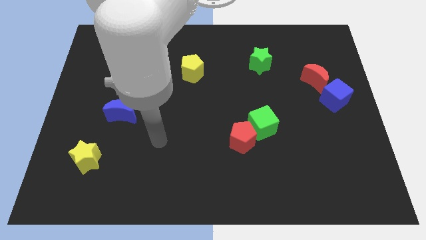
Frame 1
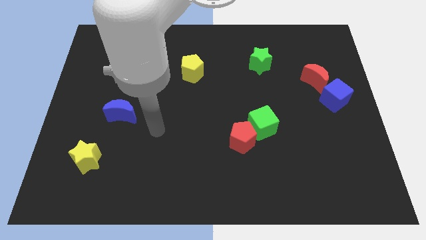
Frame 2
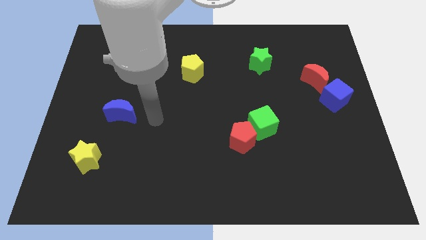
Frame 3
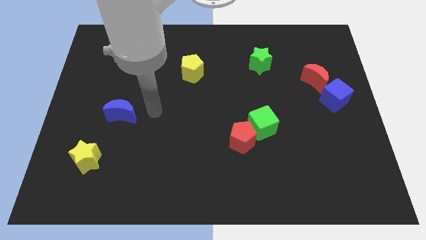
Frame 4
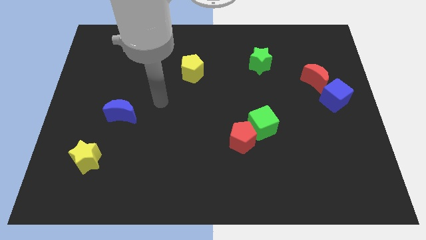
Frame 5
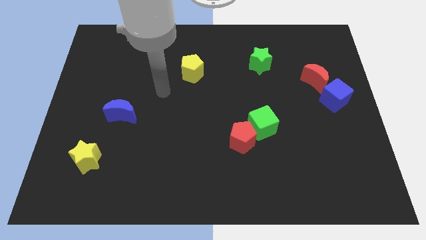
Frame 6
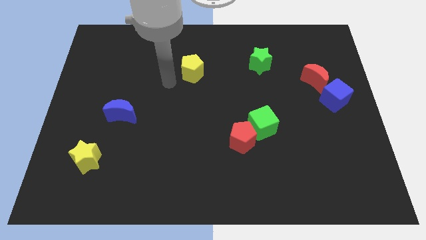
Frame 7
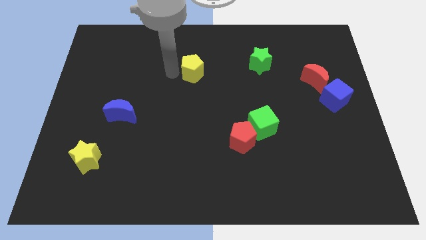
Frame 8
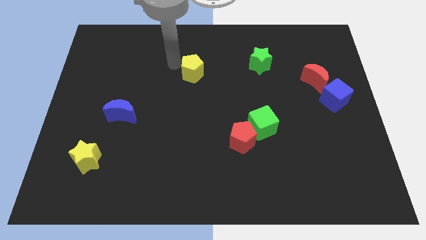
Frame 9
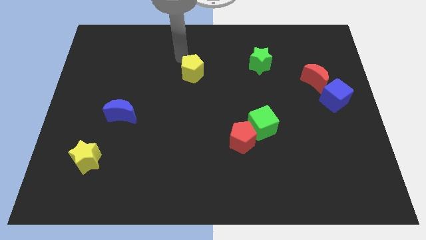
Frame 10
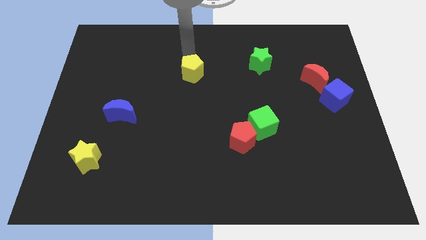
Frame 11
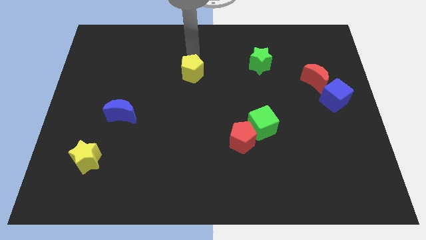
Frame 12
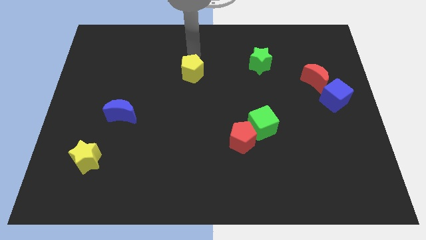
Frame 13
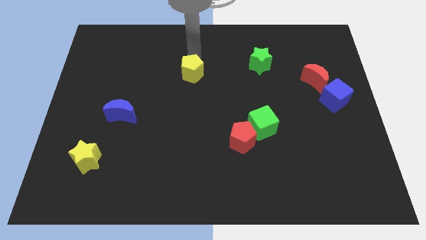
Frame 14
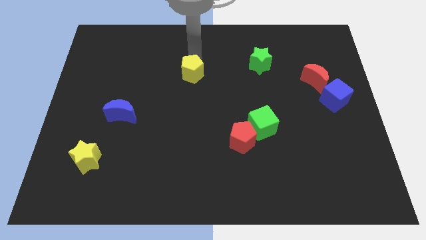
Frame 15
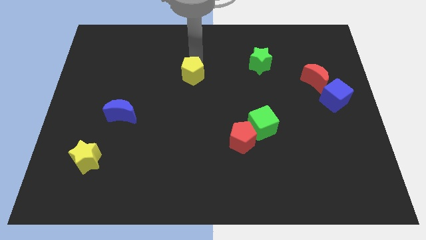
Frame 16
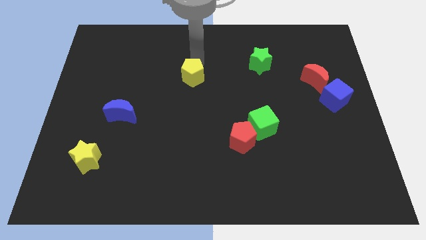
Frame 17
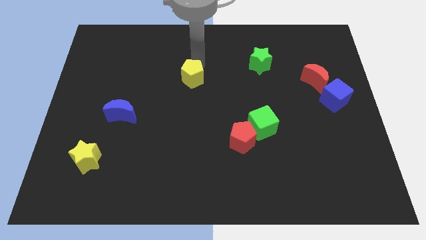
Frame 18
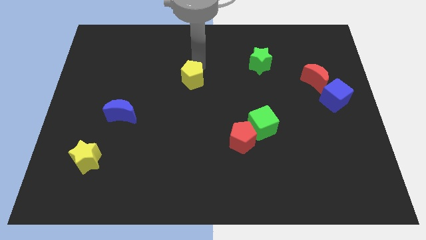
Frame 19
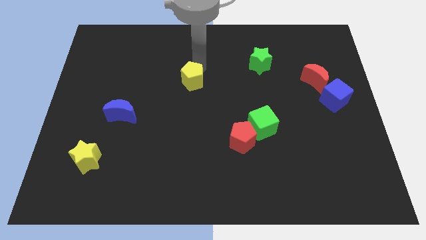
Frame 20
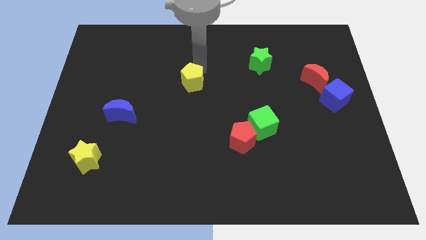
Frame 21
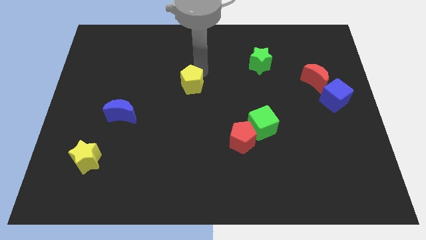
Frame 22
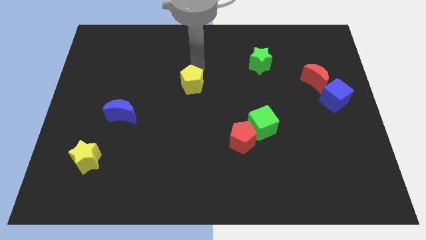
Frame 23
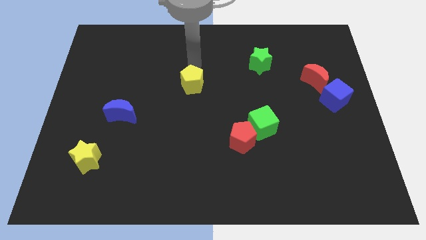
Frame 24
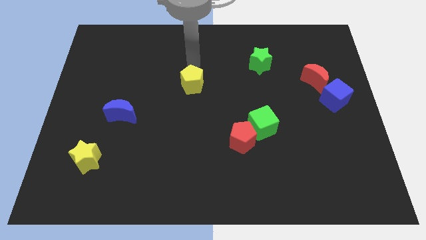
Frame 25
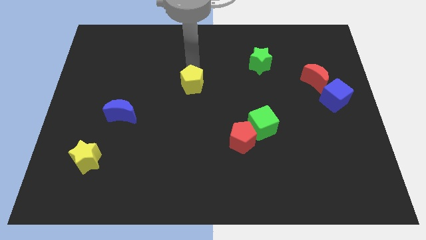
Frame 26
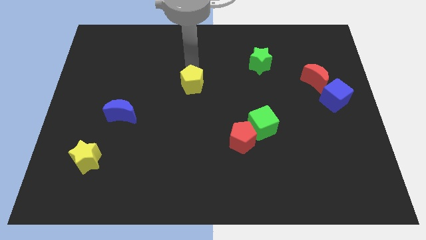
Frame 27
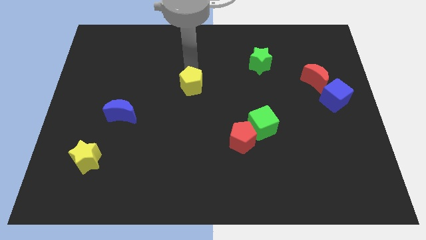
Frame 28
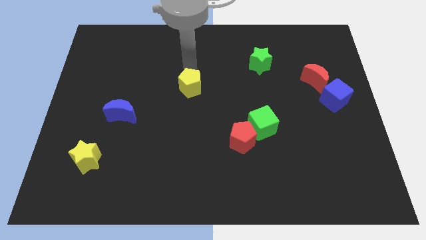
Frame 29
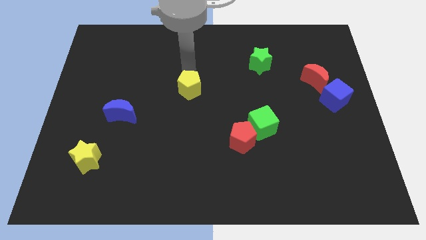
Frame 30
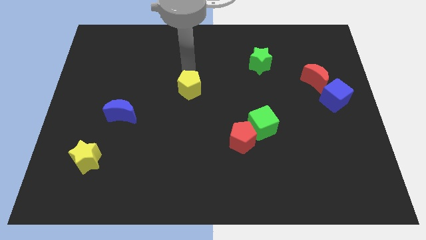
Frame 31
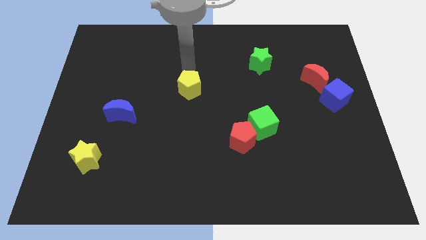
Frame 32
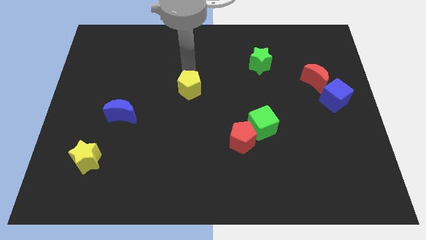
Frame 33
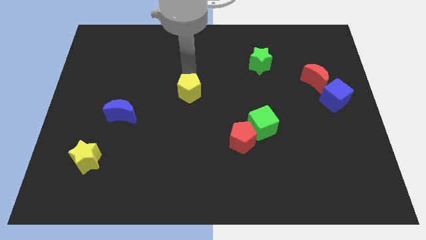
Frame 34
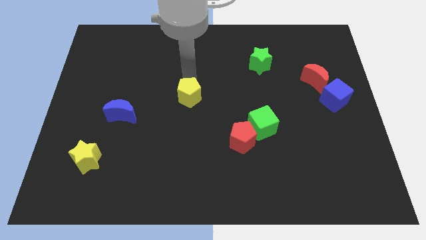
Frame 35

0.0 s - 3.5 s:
move the yellow pentagon downwards a little bit

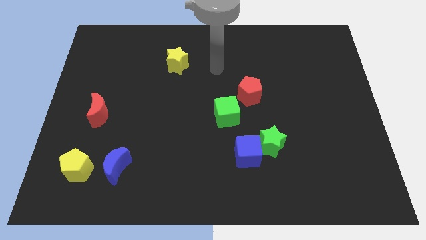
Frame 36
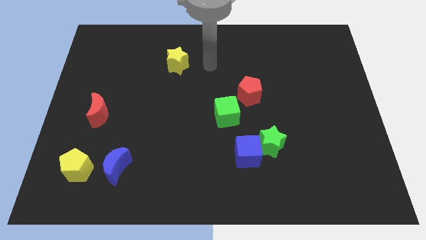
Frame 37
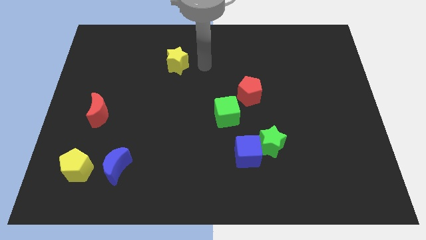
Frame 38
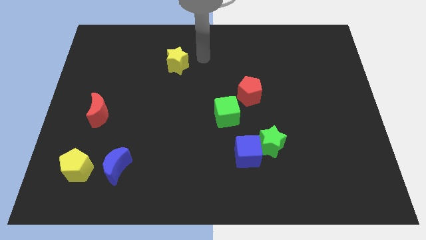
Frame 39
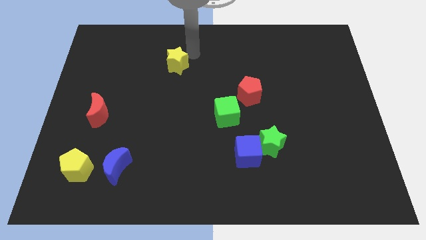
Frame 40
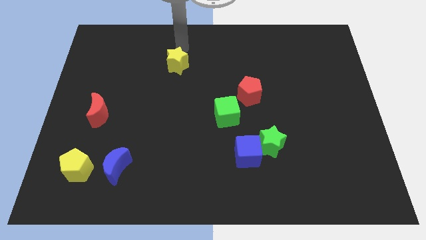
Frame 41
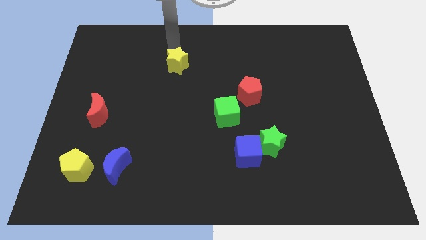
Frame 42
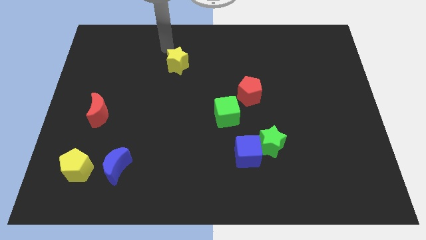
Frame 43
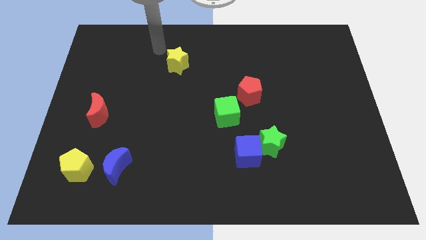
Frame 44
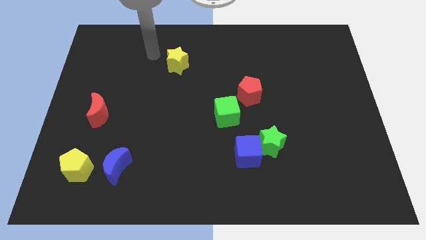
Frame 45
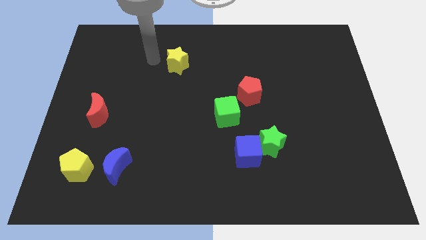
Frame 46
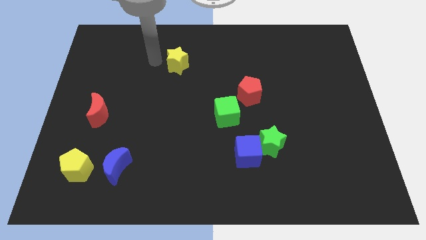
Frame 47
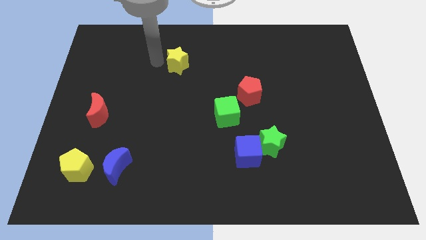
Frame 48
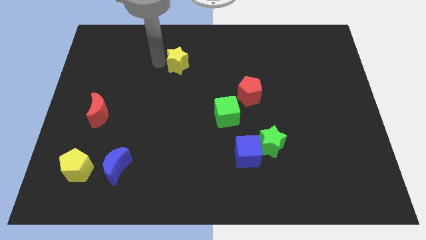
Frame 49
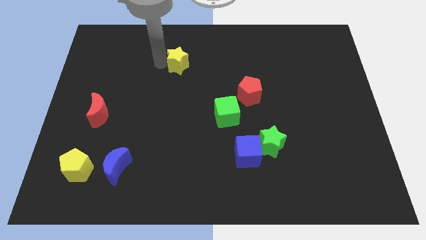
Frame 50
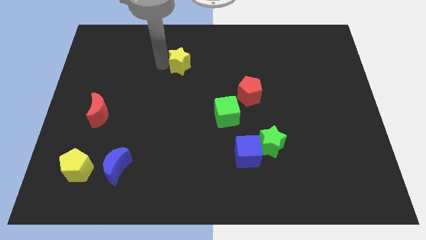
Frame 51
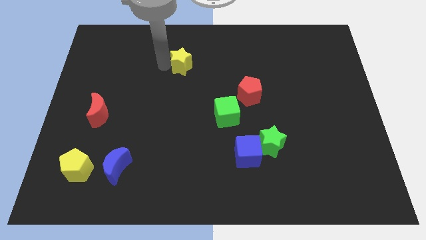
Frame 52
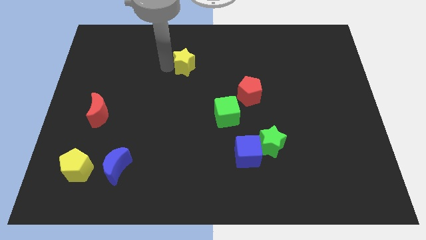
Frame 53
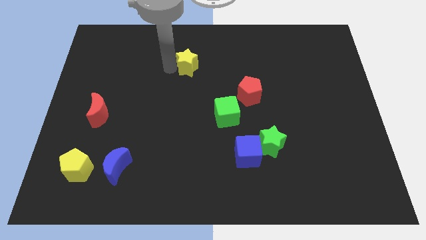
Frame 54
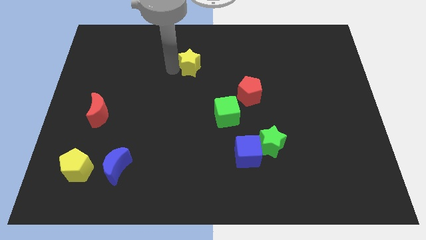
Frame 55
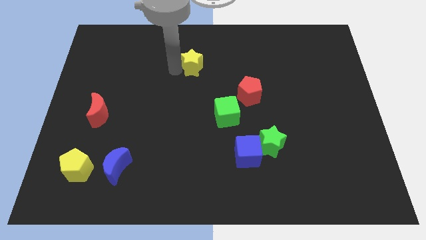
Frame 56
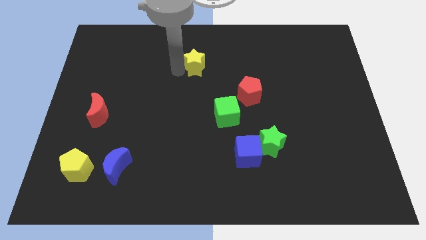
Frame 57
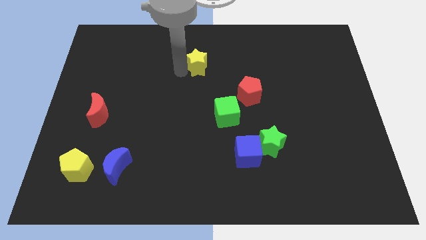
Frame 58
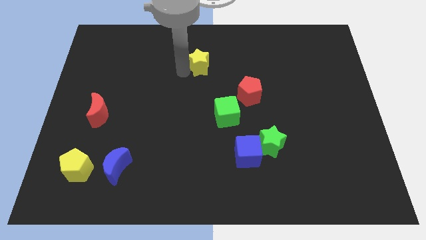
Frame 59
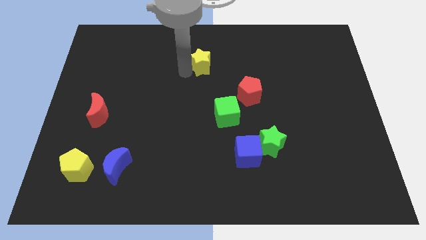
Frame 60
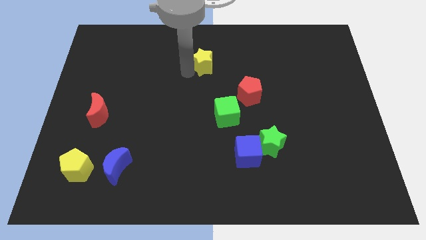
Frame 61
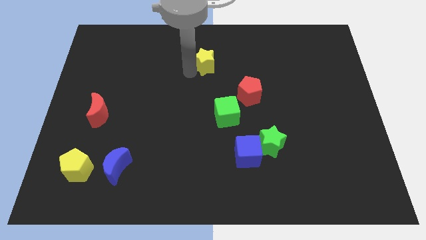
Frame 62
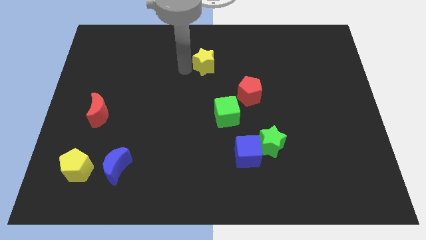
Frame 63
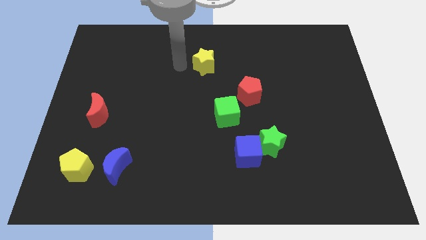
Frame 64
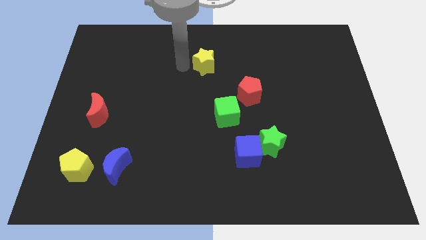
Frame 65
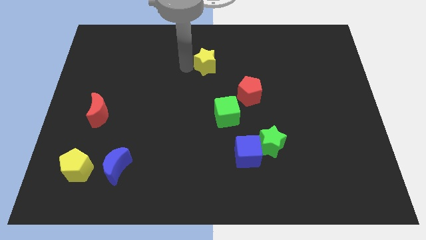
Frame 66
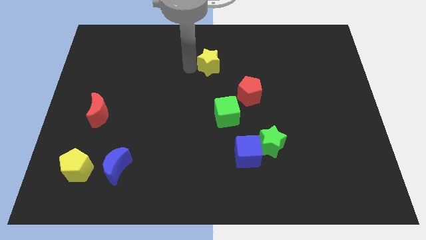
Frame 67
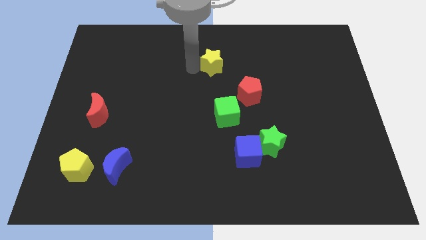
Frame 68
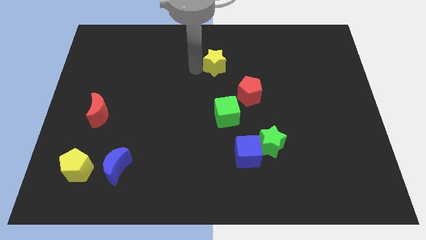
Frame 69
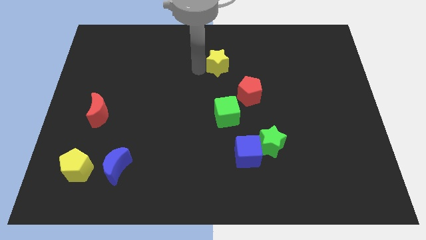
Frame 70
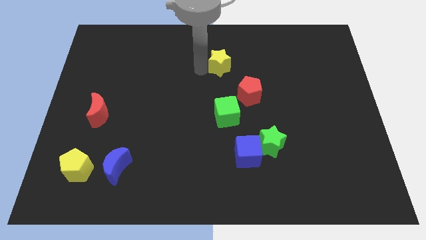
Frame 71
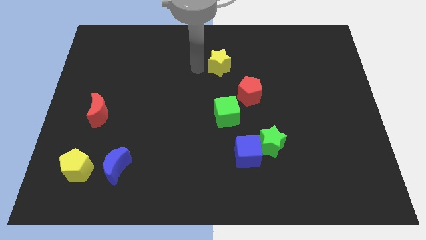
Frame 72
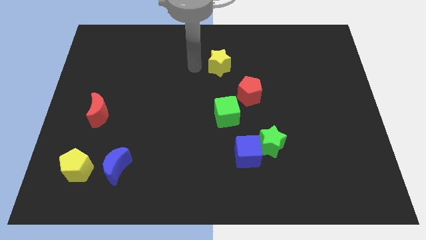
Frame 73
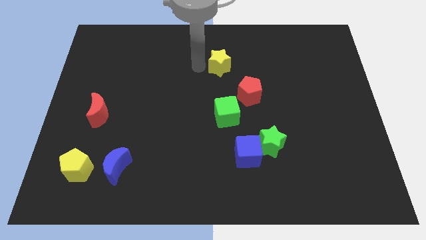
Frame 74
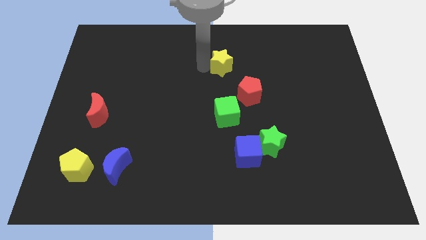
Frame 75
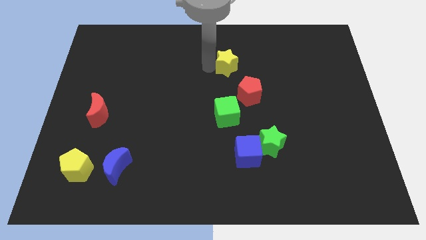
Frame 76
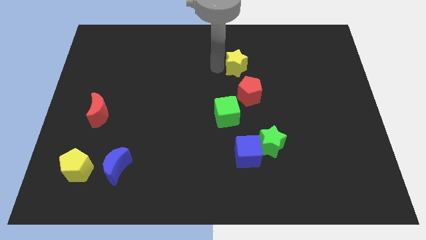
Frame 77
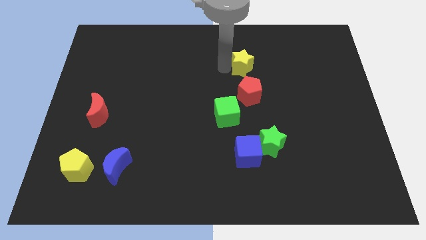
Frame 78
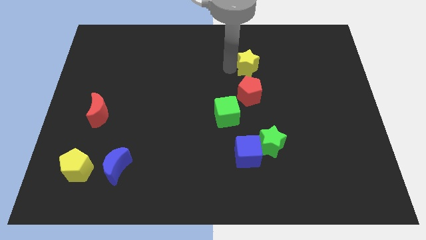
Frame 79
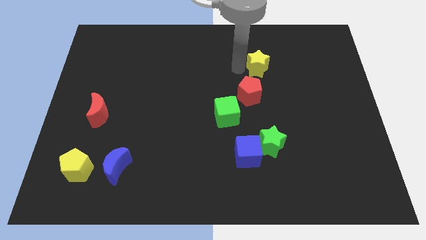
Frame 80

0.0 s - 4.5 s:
slide the yellow star right
